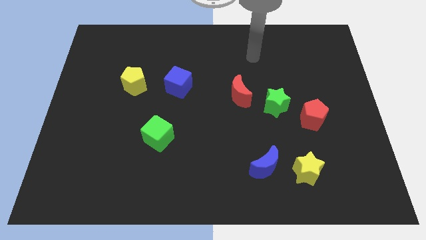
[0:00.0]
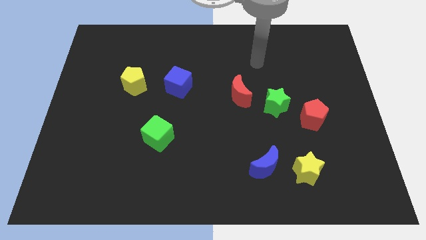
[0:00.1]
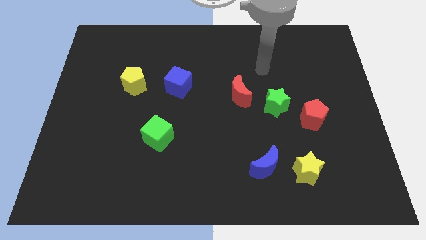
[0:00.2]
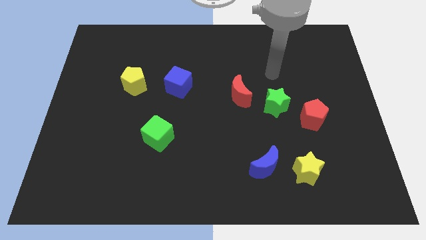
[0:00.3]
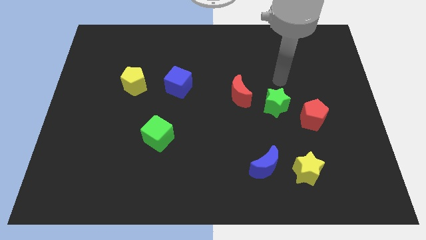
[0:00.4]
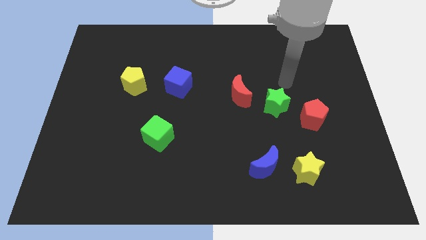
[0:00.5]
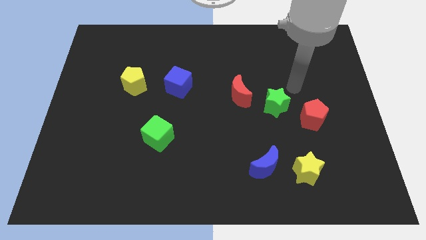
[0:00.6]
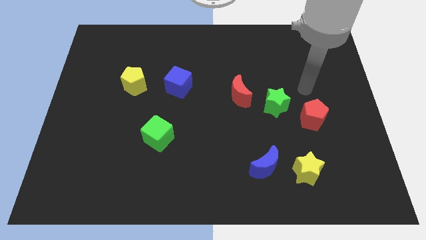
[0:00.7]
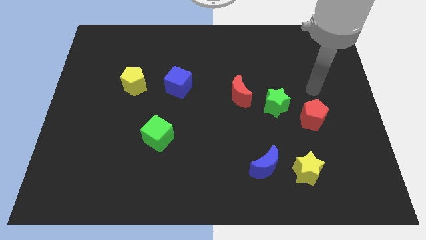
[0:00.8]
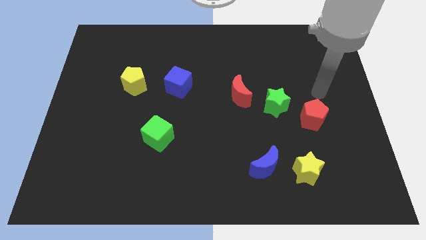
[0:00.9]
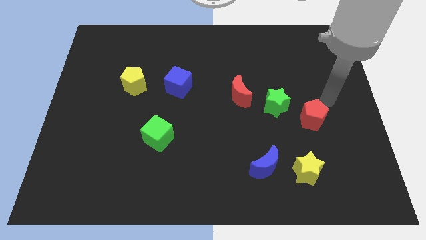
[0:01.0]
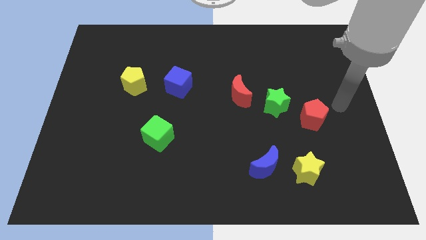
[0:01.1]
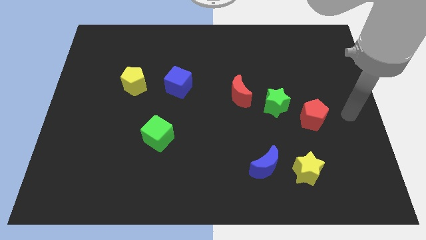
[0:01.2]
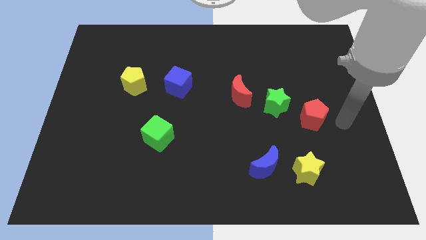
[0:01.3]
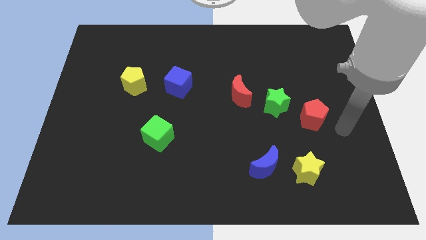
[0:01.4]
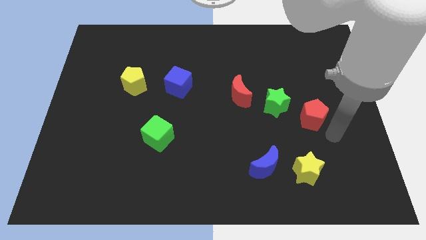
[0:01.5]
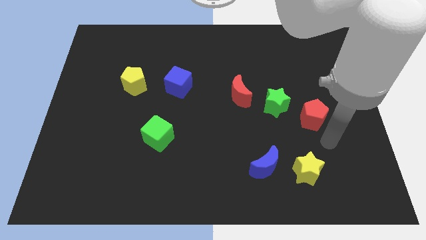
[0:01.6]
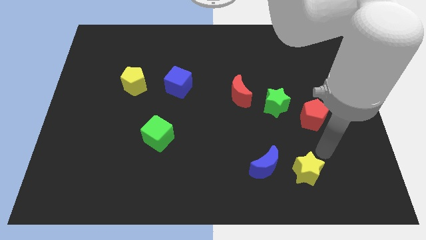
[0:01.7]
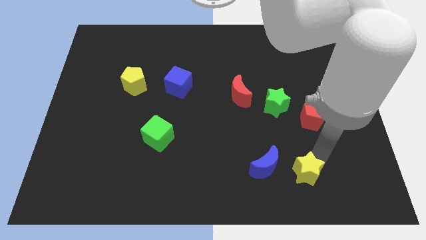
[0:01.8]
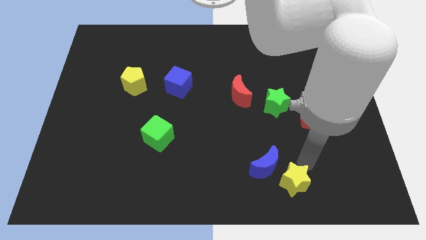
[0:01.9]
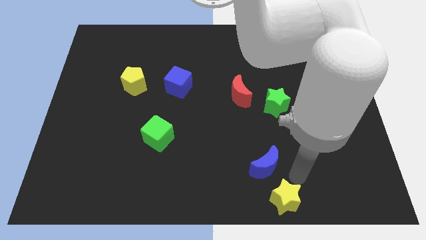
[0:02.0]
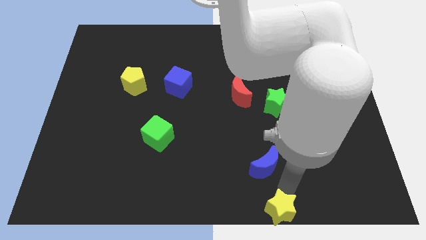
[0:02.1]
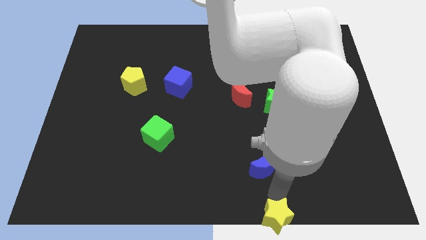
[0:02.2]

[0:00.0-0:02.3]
move the blue moon away from the yellow star

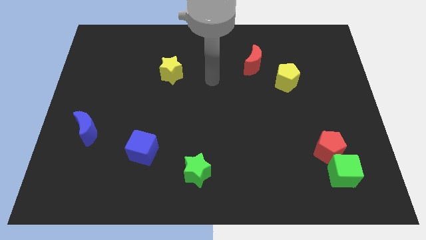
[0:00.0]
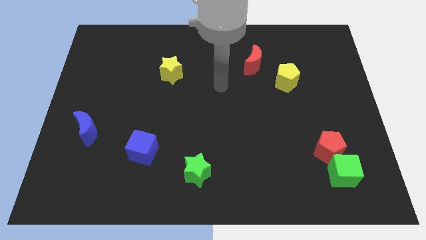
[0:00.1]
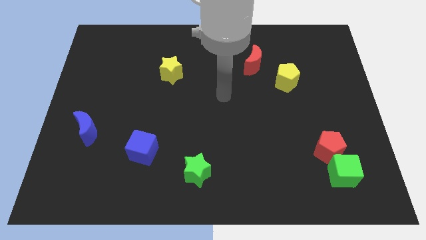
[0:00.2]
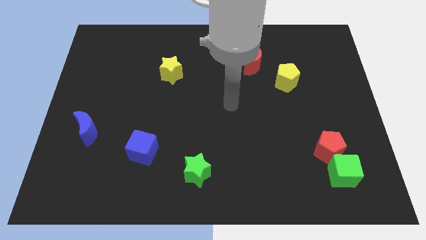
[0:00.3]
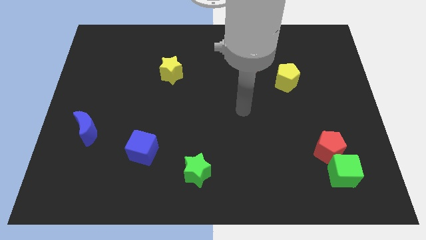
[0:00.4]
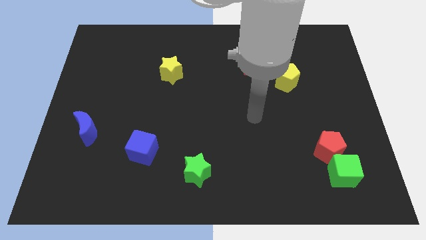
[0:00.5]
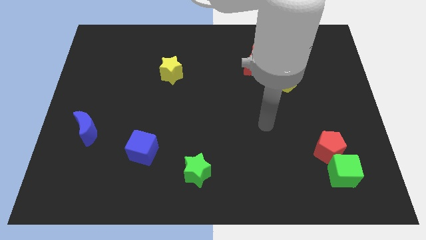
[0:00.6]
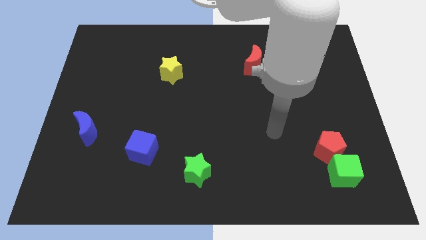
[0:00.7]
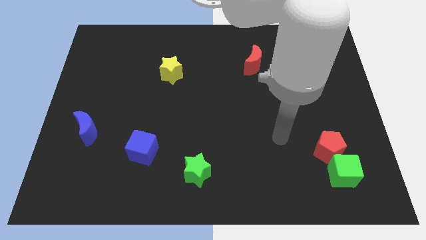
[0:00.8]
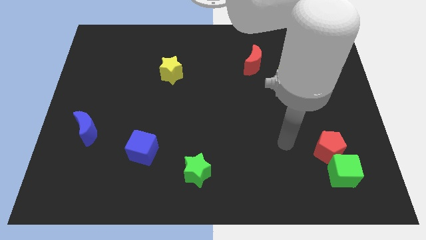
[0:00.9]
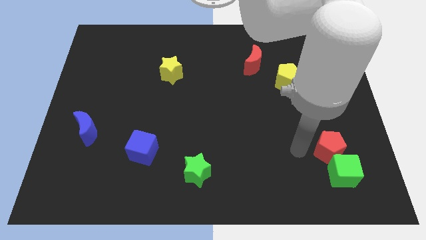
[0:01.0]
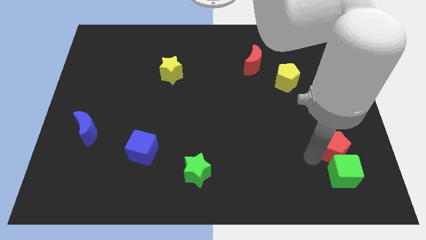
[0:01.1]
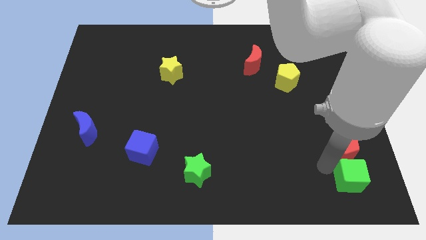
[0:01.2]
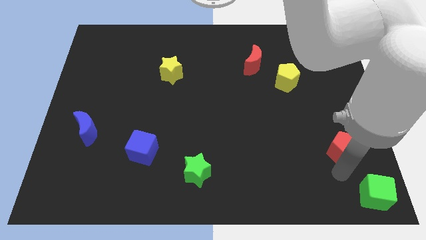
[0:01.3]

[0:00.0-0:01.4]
move the red pentagon away from the green cube

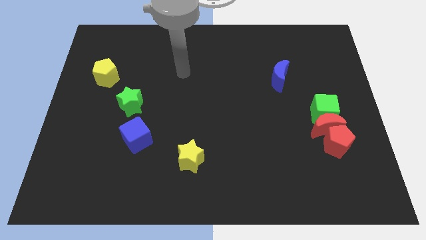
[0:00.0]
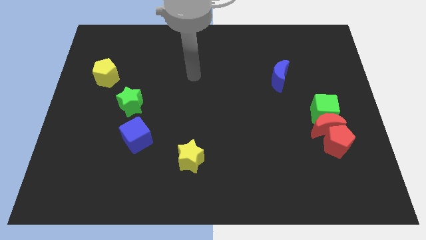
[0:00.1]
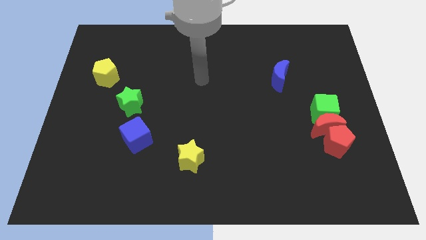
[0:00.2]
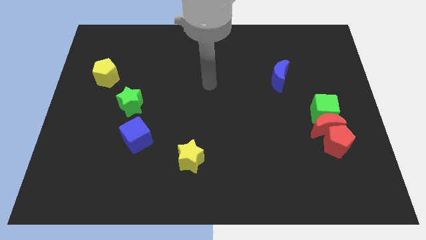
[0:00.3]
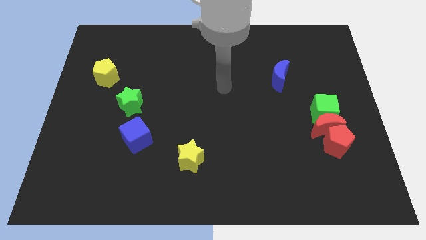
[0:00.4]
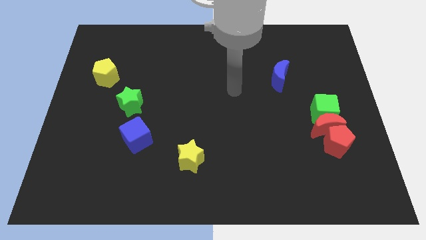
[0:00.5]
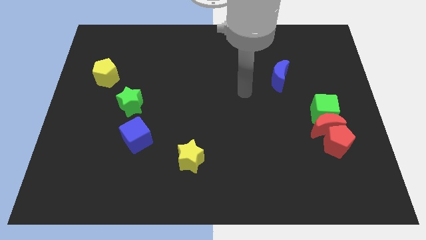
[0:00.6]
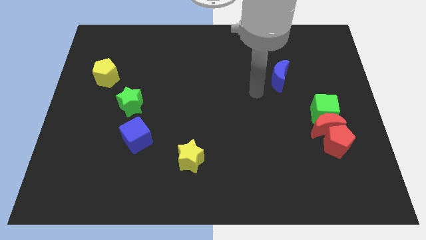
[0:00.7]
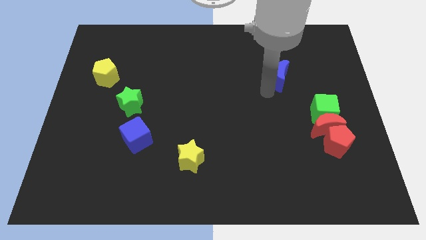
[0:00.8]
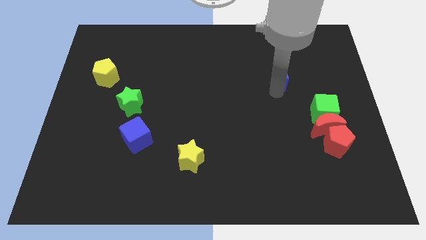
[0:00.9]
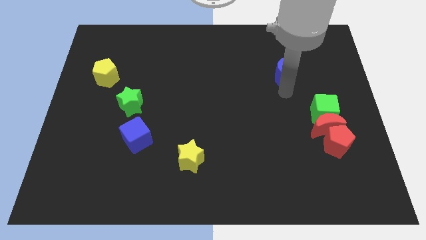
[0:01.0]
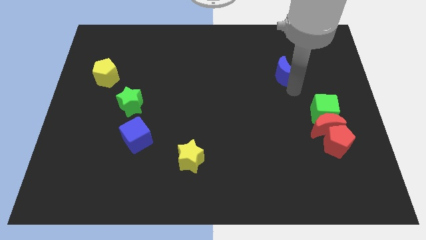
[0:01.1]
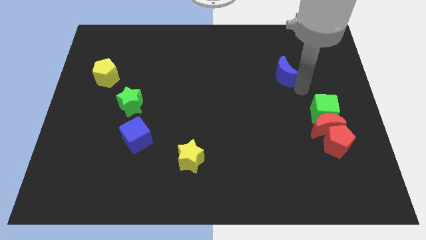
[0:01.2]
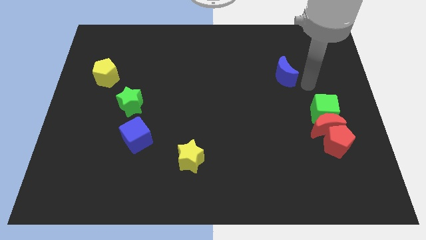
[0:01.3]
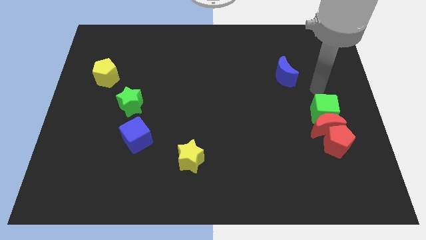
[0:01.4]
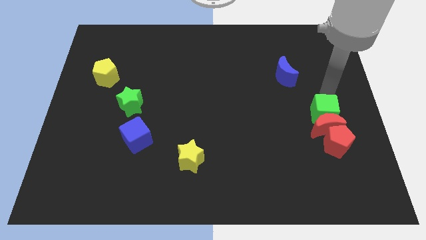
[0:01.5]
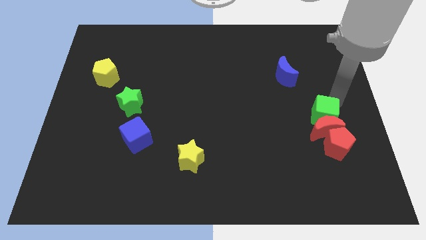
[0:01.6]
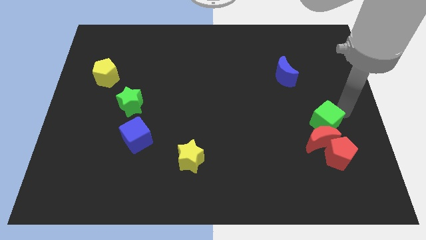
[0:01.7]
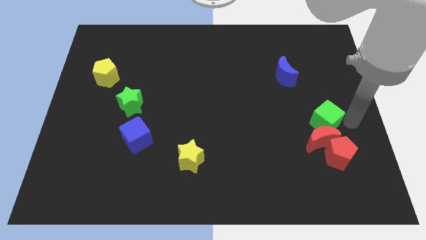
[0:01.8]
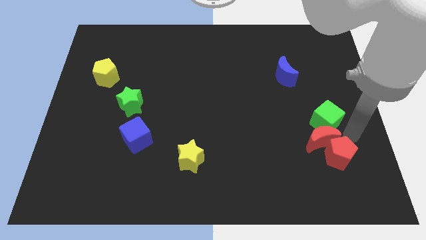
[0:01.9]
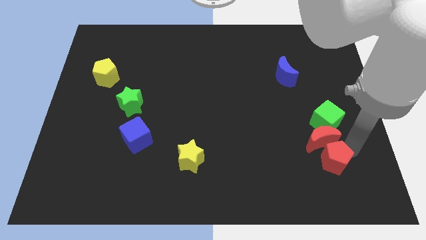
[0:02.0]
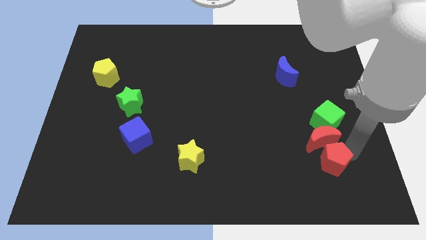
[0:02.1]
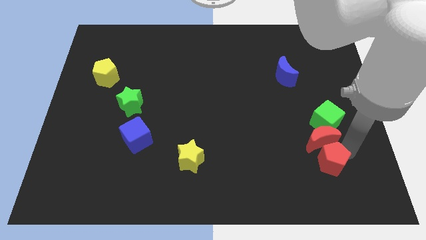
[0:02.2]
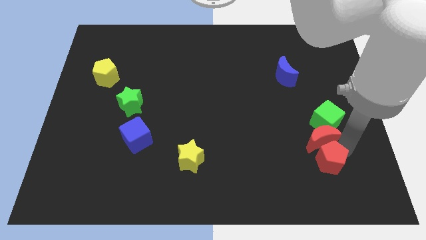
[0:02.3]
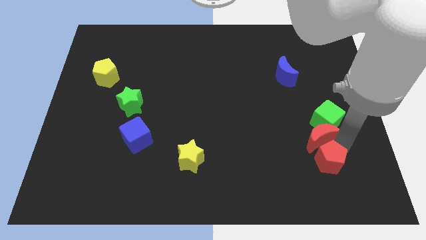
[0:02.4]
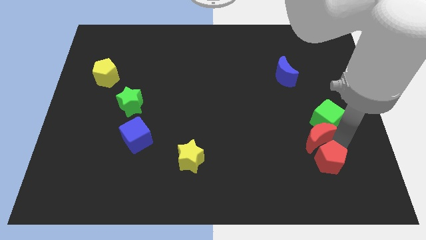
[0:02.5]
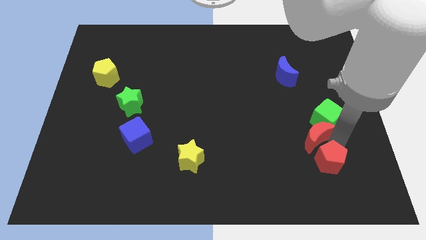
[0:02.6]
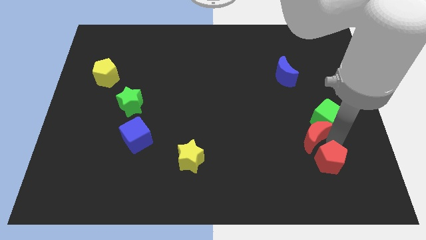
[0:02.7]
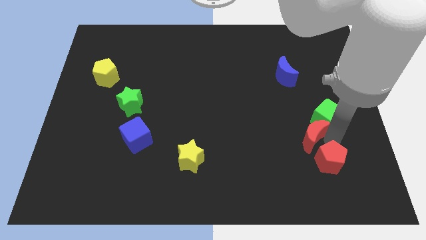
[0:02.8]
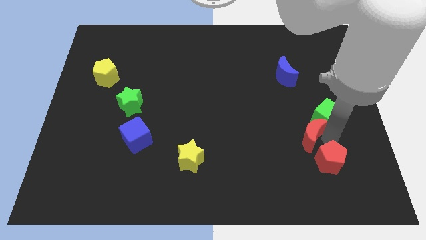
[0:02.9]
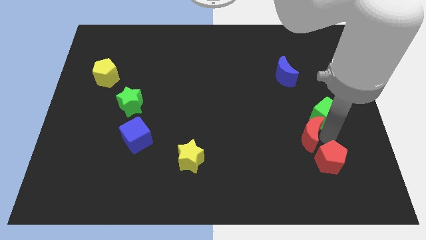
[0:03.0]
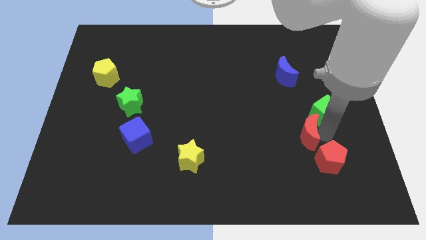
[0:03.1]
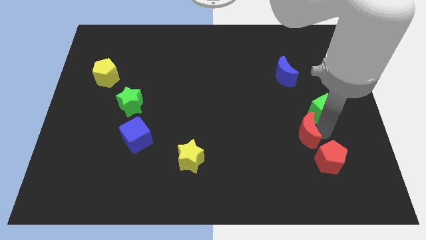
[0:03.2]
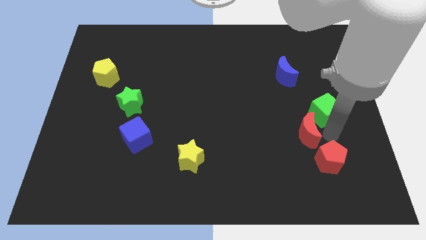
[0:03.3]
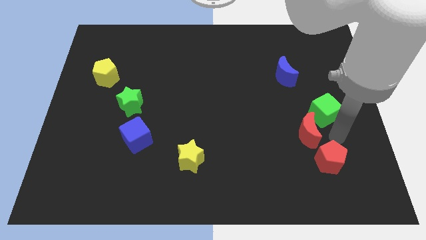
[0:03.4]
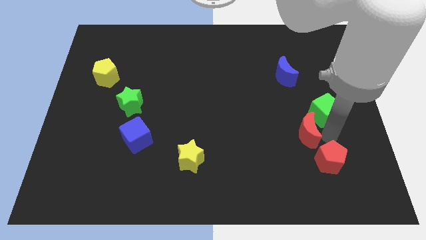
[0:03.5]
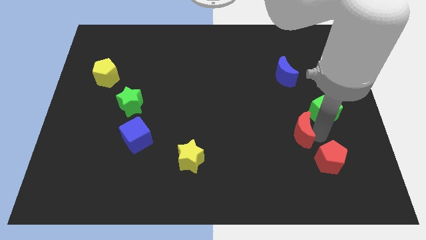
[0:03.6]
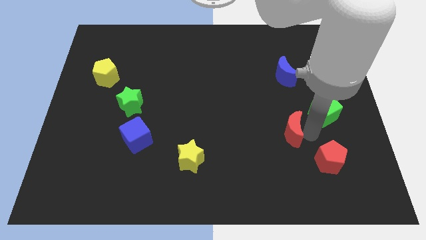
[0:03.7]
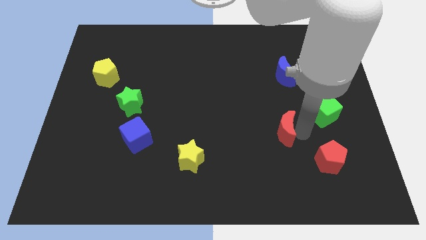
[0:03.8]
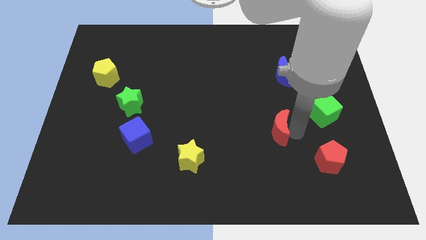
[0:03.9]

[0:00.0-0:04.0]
separate the red moon from the green cube and red pentagon

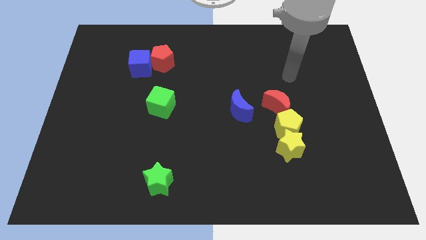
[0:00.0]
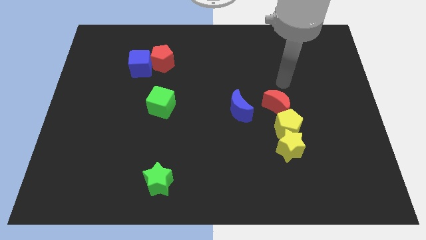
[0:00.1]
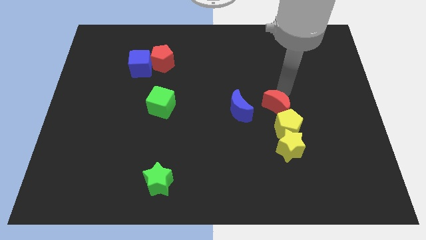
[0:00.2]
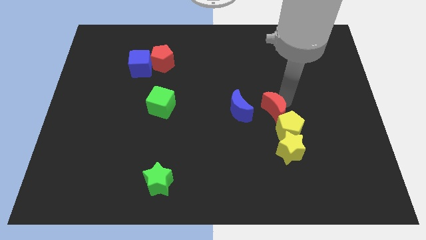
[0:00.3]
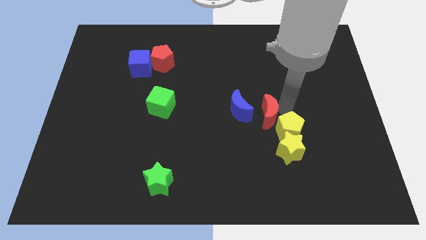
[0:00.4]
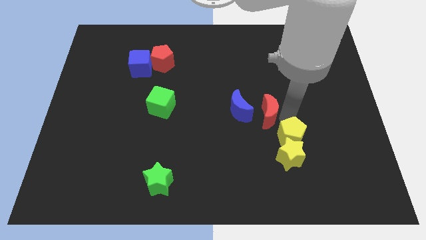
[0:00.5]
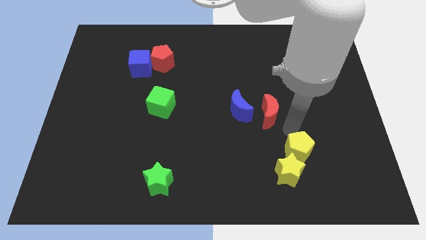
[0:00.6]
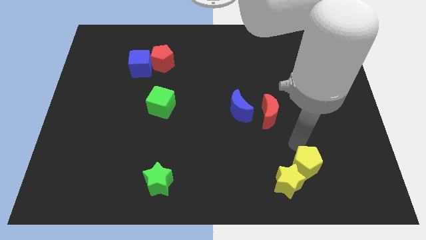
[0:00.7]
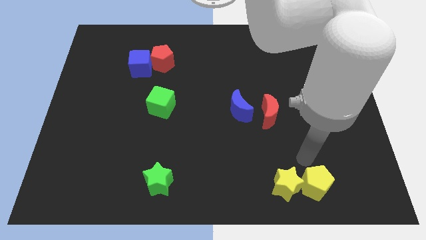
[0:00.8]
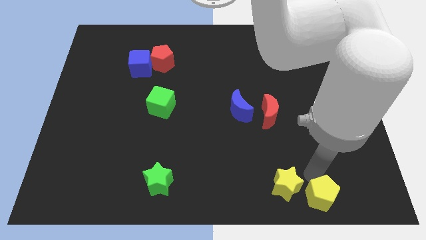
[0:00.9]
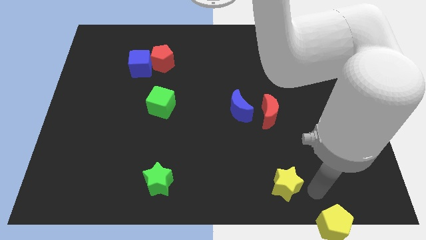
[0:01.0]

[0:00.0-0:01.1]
pull the yellow star apart from the yellow pentagon

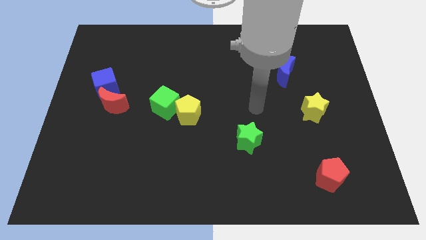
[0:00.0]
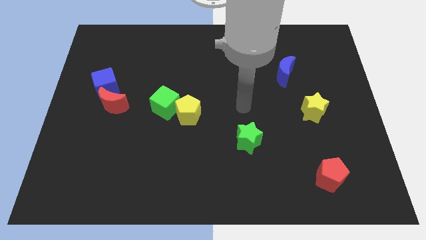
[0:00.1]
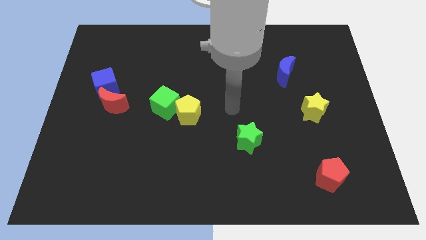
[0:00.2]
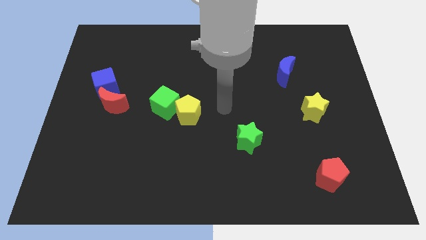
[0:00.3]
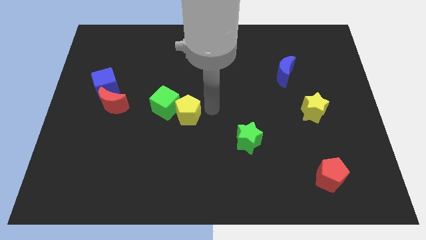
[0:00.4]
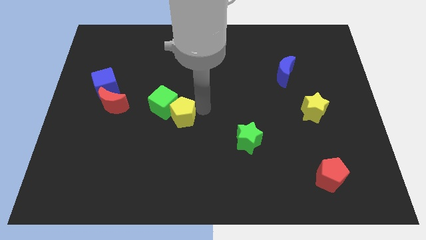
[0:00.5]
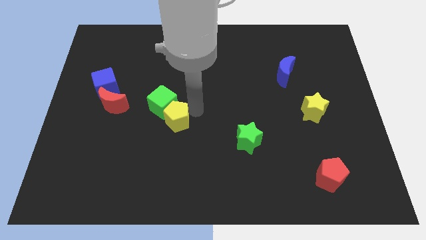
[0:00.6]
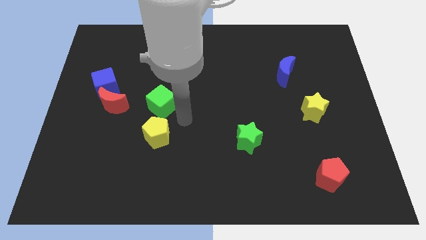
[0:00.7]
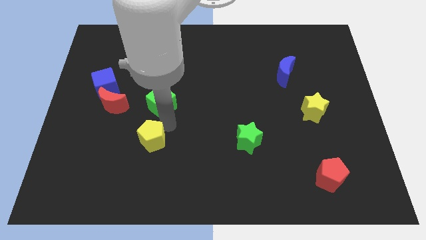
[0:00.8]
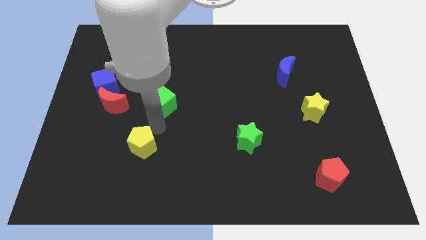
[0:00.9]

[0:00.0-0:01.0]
pull the green cube apart from the yellow pentagon
